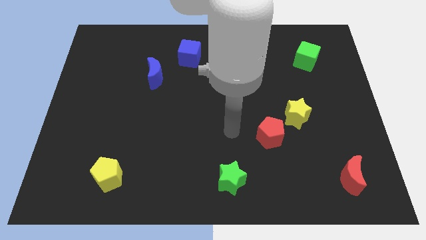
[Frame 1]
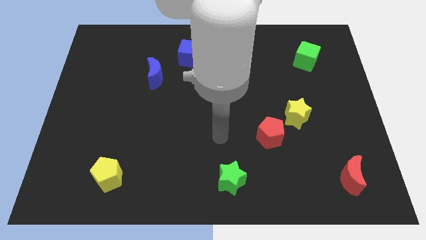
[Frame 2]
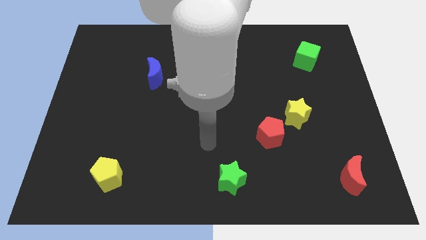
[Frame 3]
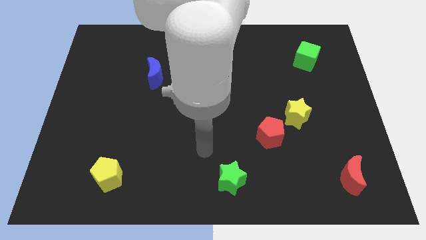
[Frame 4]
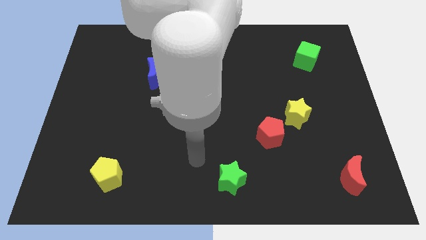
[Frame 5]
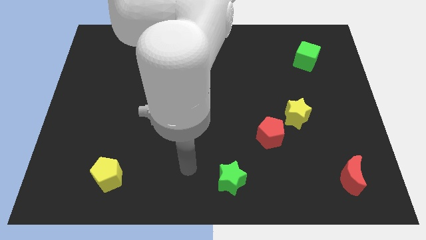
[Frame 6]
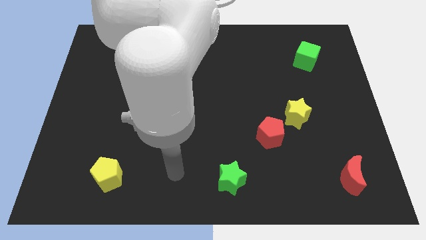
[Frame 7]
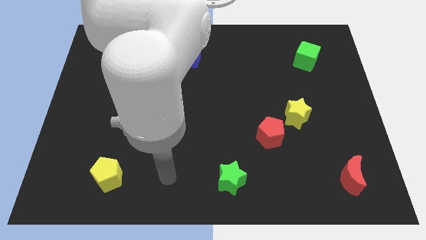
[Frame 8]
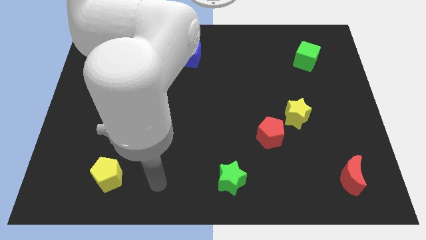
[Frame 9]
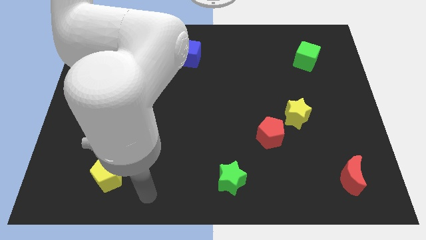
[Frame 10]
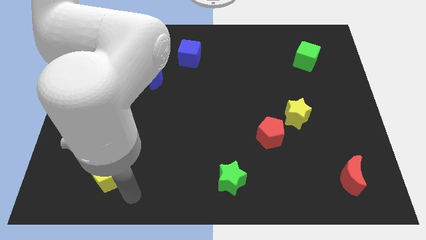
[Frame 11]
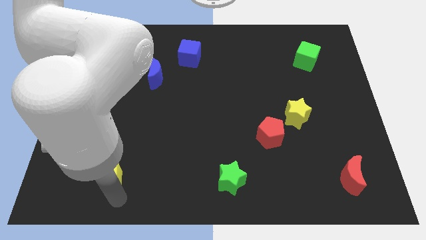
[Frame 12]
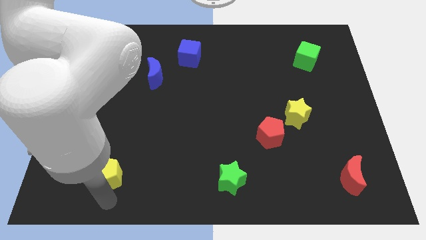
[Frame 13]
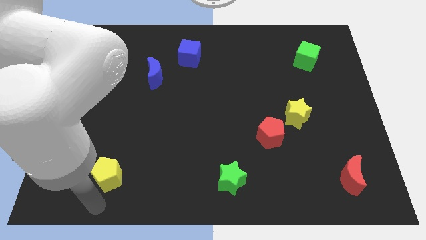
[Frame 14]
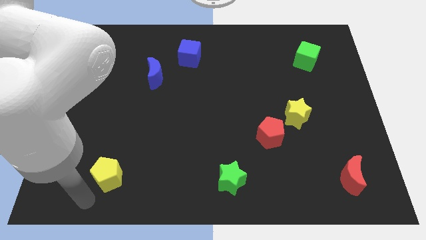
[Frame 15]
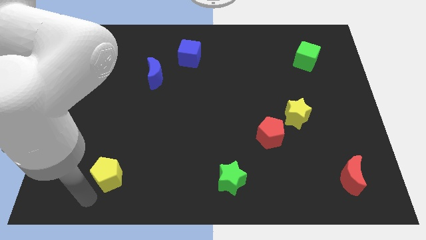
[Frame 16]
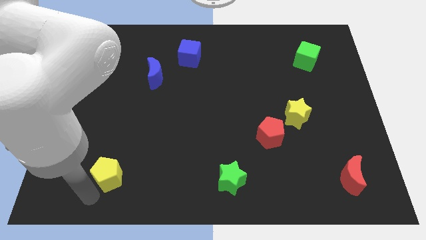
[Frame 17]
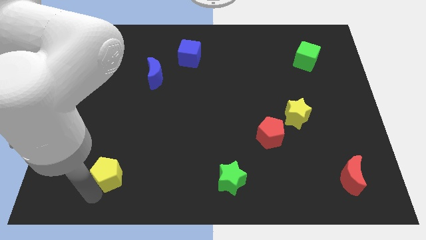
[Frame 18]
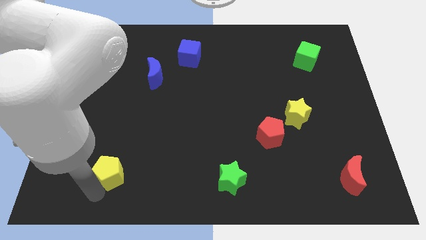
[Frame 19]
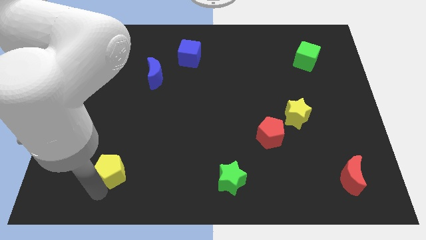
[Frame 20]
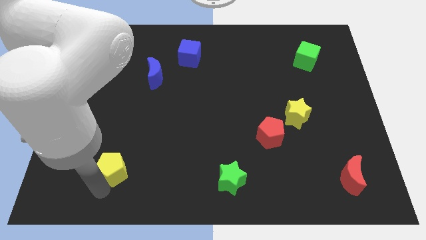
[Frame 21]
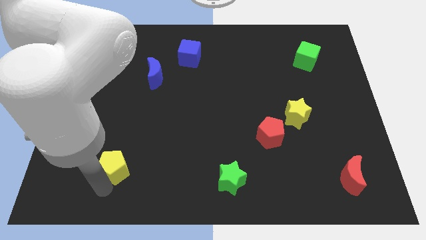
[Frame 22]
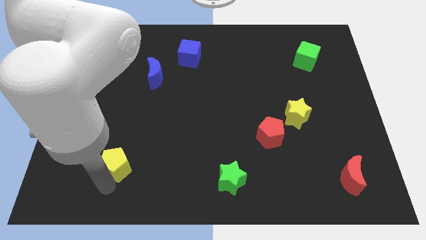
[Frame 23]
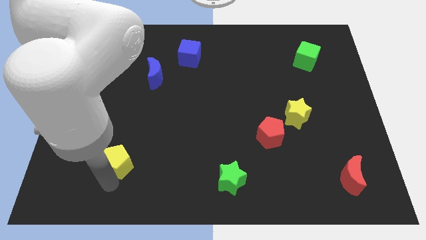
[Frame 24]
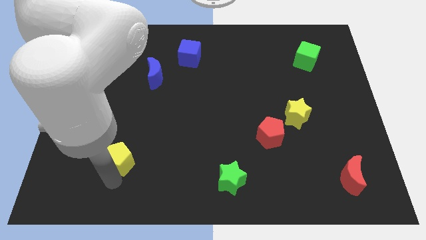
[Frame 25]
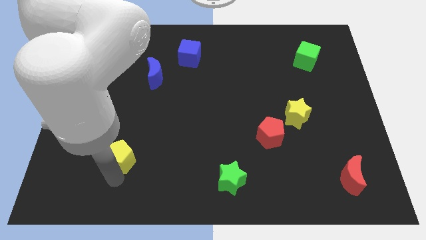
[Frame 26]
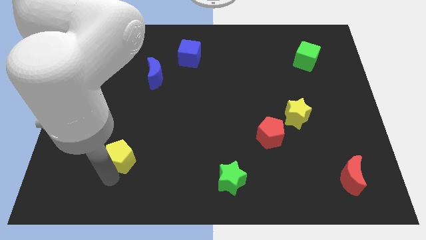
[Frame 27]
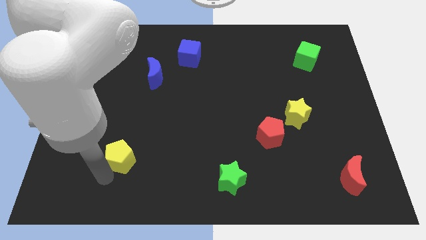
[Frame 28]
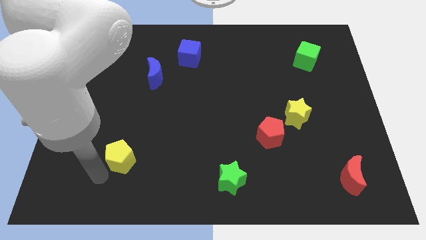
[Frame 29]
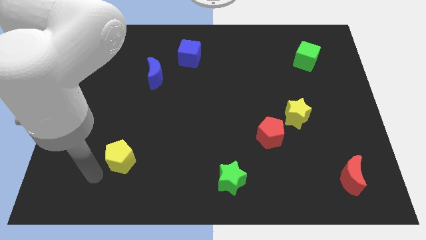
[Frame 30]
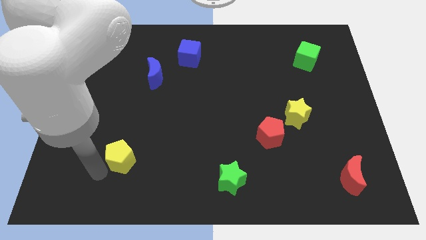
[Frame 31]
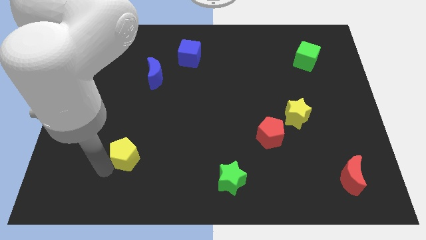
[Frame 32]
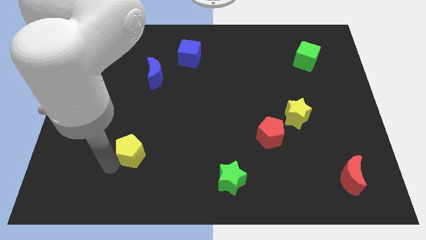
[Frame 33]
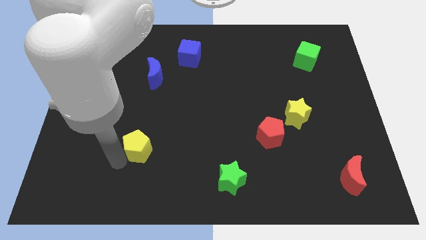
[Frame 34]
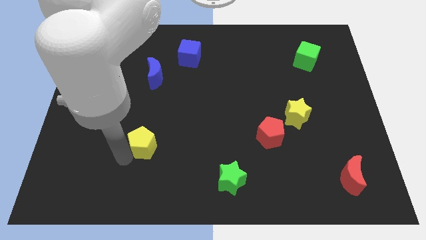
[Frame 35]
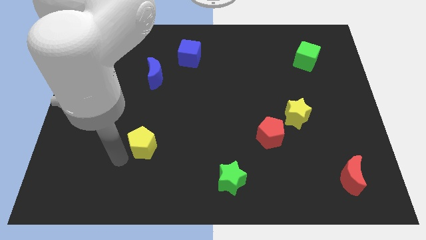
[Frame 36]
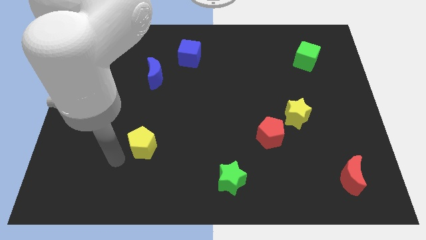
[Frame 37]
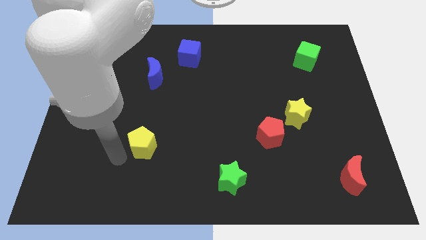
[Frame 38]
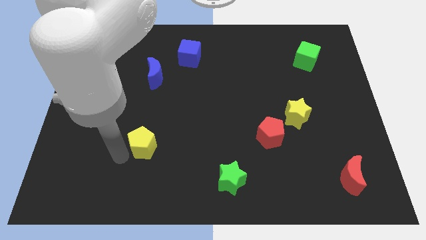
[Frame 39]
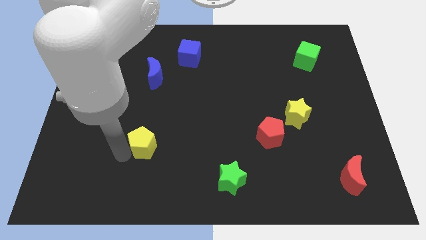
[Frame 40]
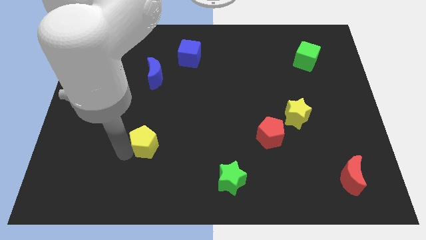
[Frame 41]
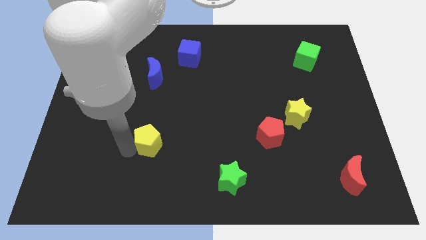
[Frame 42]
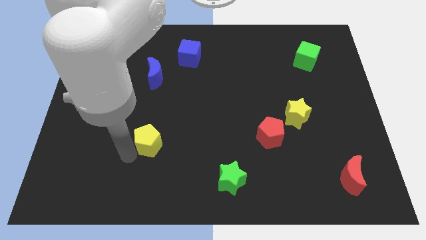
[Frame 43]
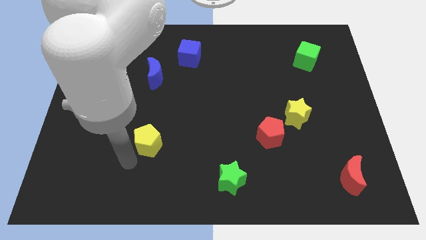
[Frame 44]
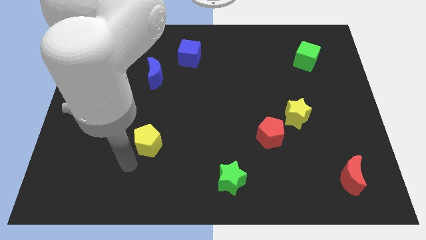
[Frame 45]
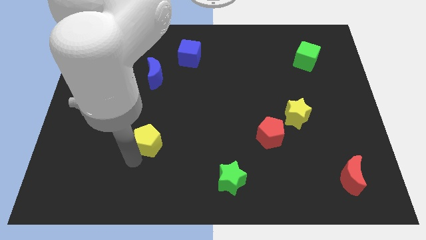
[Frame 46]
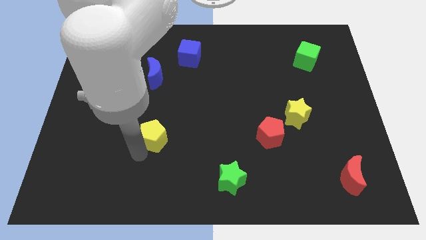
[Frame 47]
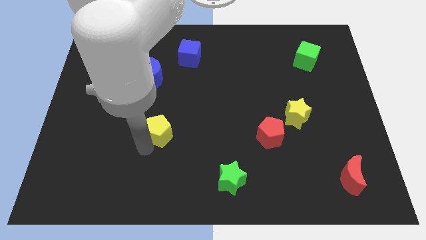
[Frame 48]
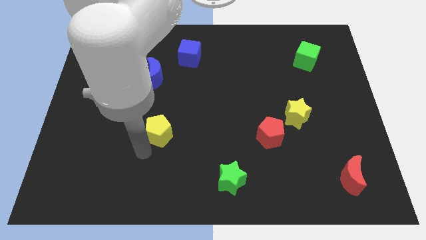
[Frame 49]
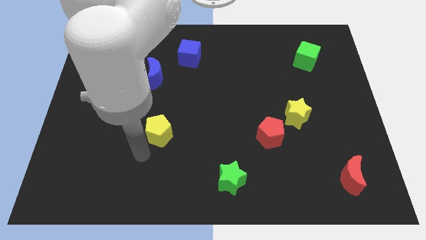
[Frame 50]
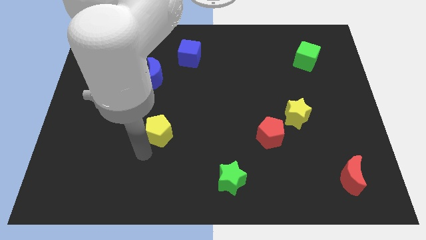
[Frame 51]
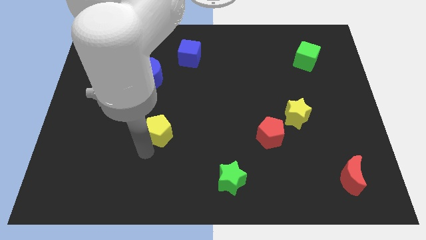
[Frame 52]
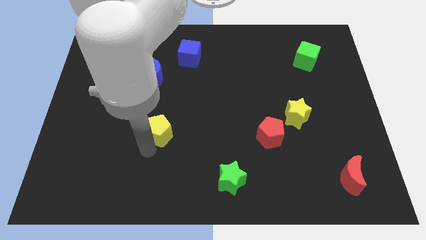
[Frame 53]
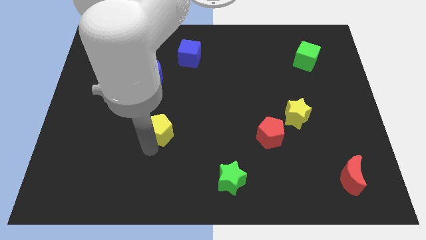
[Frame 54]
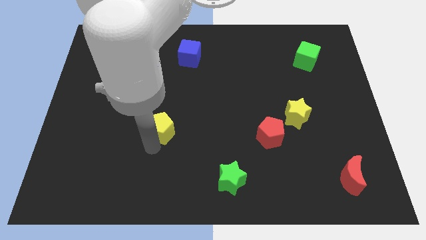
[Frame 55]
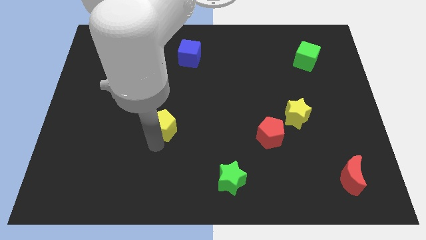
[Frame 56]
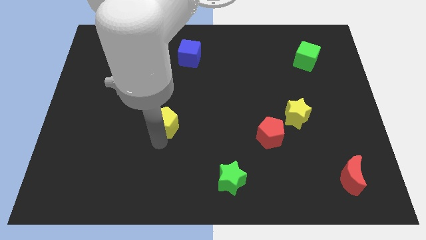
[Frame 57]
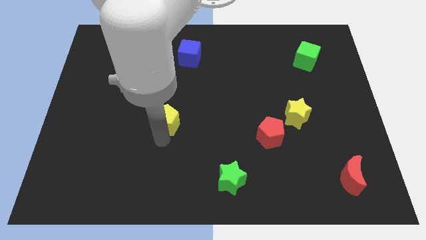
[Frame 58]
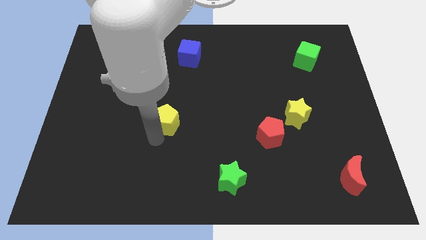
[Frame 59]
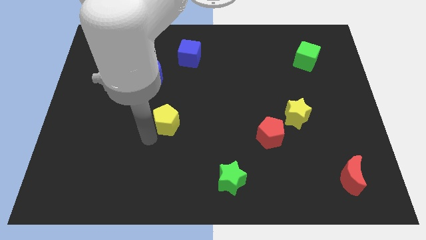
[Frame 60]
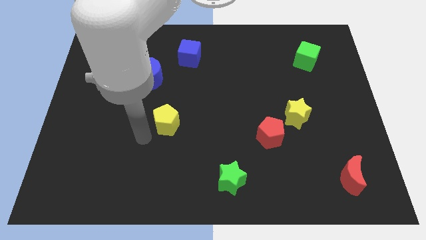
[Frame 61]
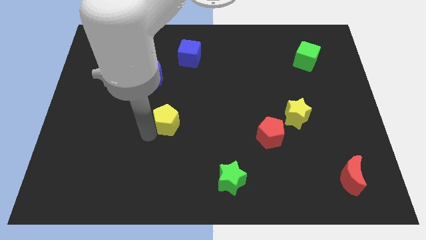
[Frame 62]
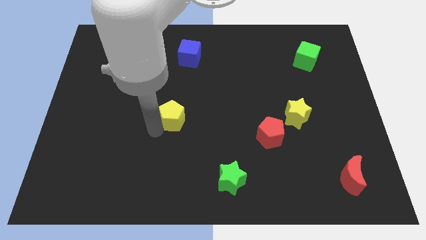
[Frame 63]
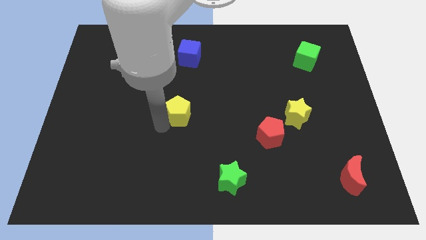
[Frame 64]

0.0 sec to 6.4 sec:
slide the yellow pentagon upwards and then right

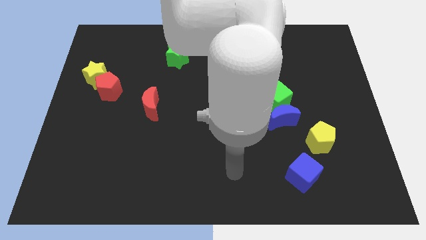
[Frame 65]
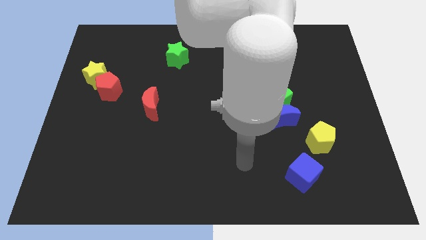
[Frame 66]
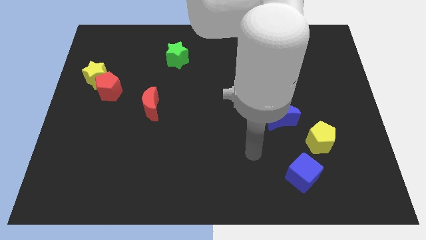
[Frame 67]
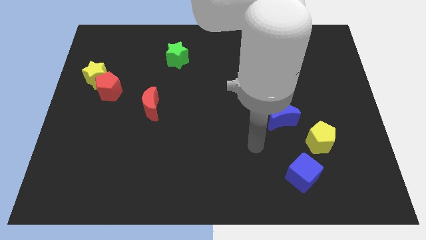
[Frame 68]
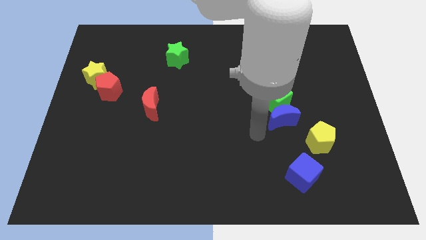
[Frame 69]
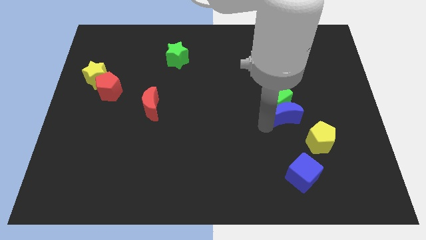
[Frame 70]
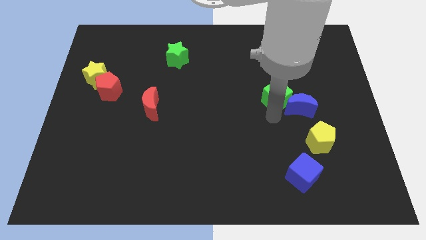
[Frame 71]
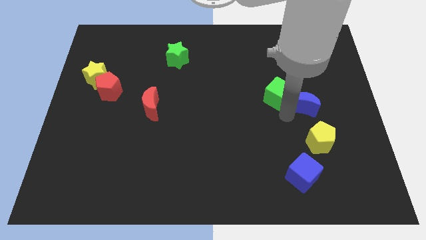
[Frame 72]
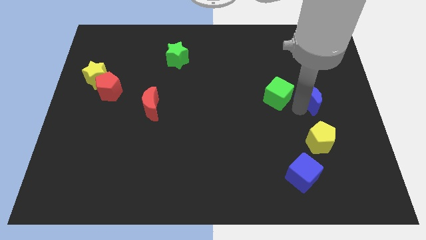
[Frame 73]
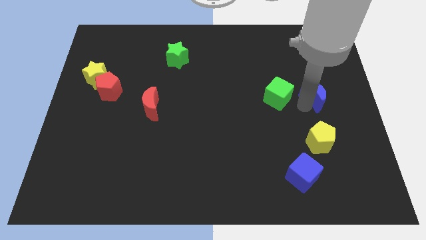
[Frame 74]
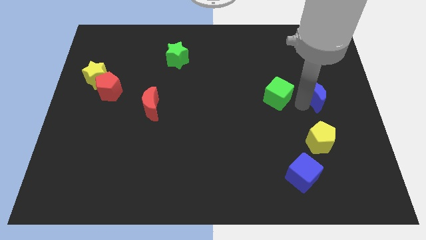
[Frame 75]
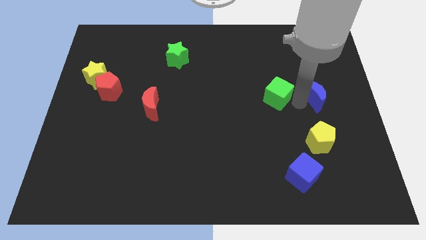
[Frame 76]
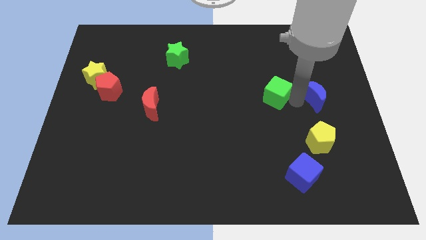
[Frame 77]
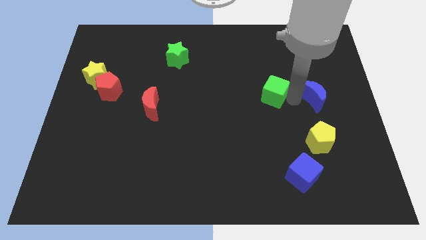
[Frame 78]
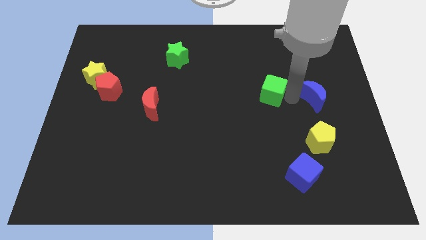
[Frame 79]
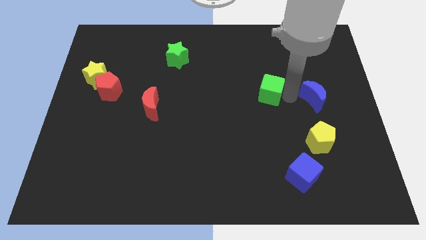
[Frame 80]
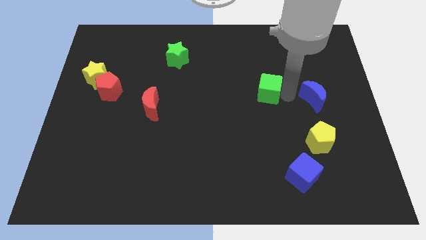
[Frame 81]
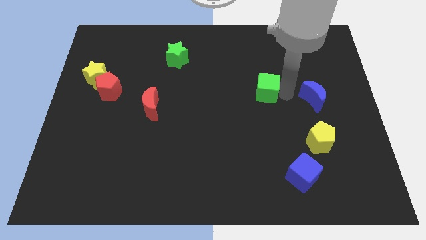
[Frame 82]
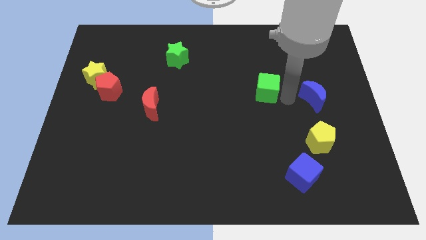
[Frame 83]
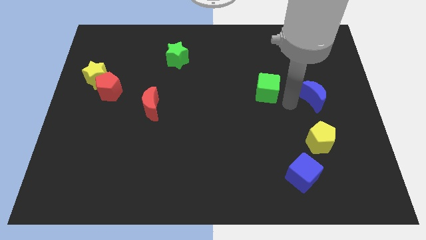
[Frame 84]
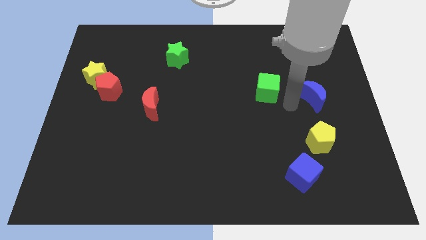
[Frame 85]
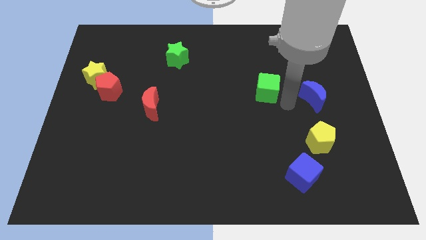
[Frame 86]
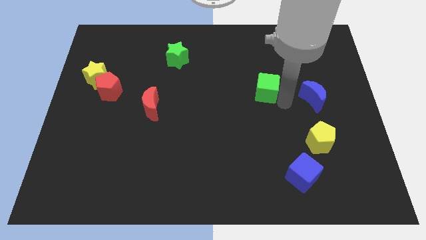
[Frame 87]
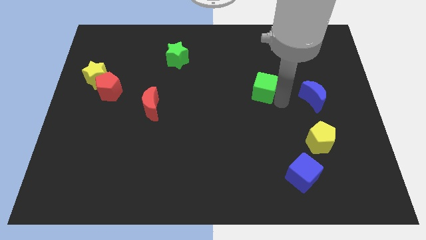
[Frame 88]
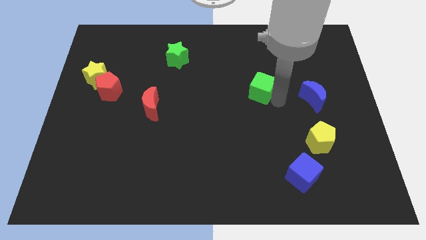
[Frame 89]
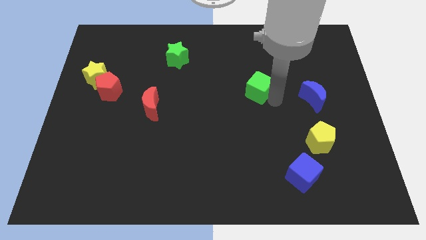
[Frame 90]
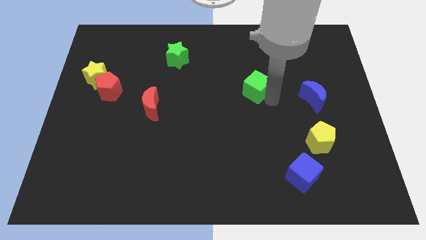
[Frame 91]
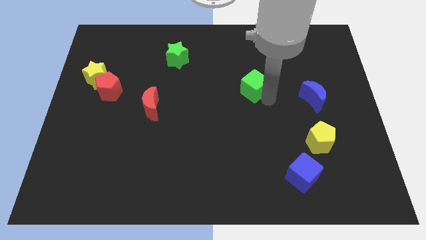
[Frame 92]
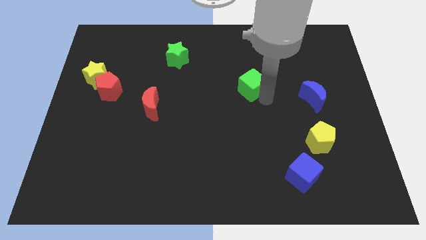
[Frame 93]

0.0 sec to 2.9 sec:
slide the green cube a little upwards and then left
